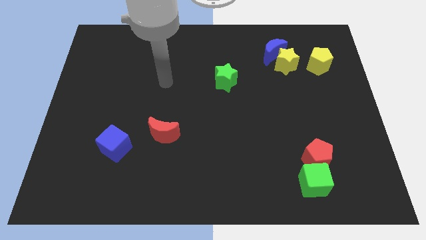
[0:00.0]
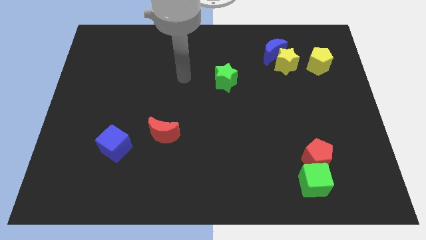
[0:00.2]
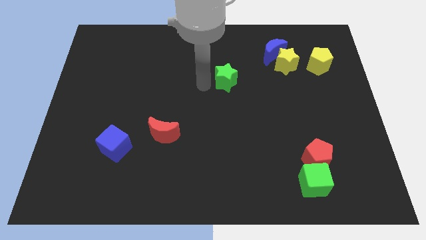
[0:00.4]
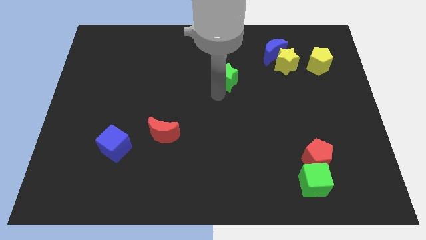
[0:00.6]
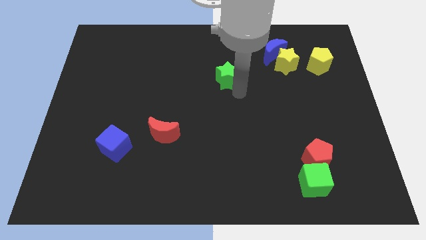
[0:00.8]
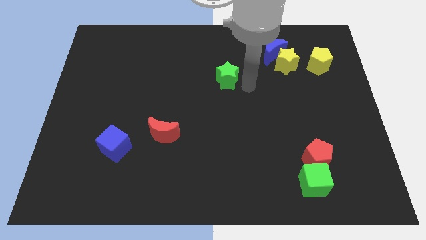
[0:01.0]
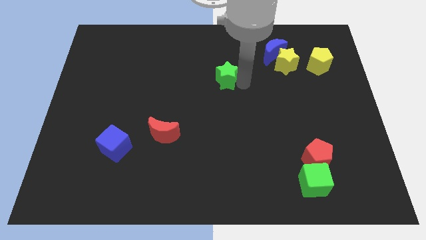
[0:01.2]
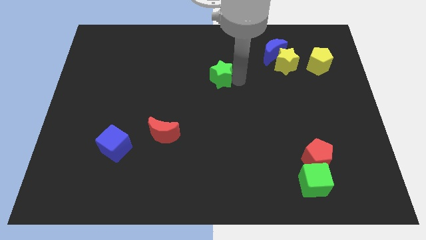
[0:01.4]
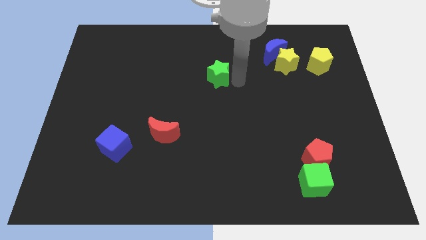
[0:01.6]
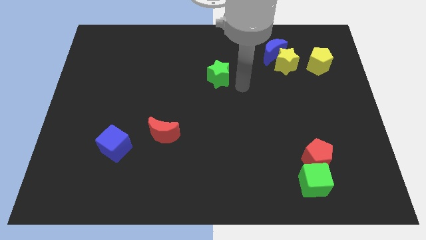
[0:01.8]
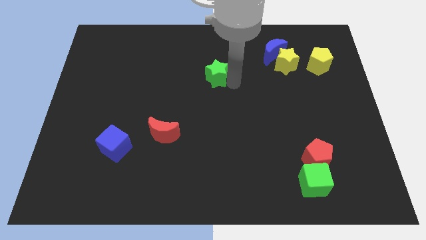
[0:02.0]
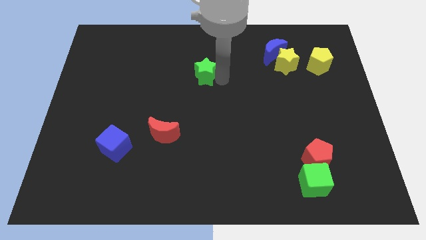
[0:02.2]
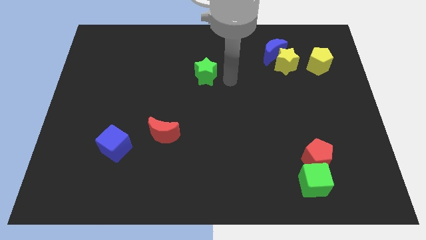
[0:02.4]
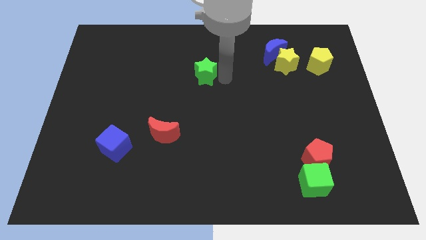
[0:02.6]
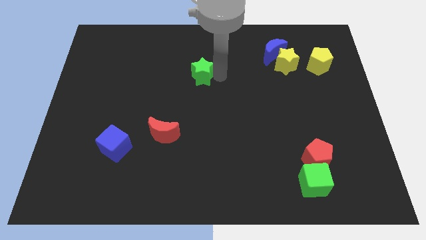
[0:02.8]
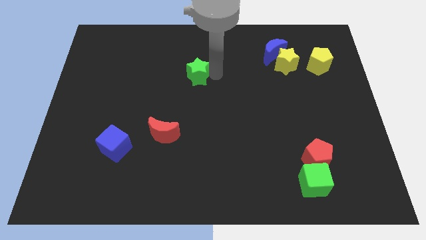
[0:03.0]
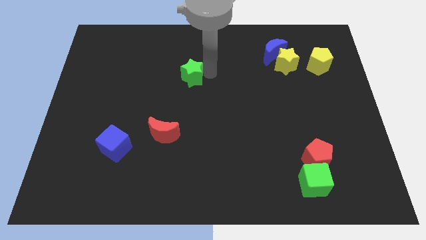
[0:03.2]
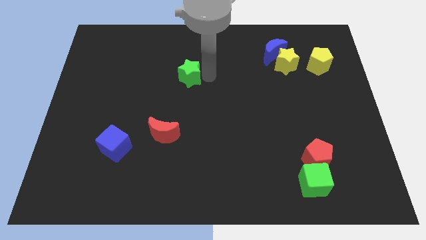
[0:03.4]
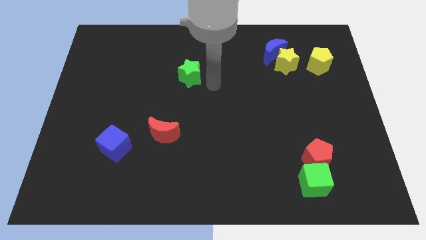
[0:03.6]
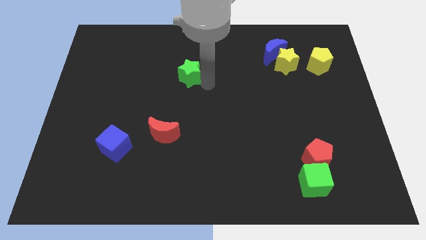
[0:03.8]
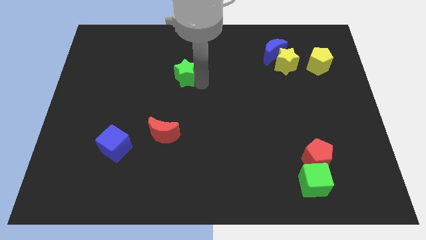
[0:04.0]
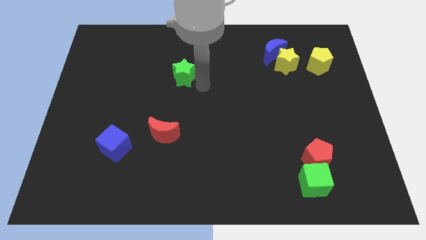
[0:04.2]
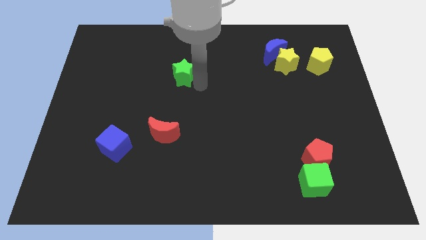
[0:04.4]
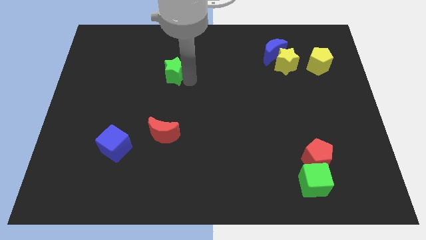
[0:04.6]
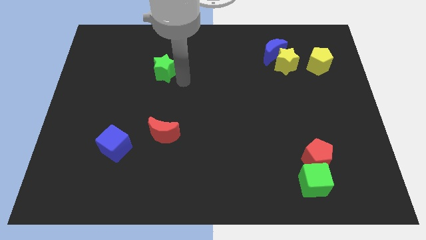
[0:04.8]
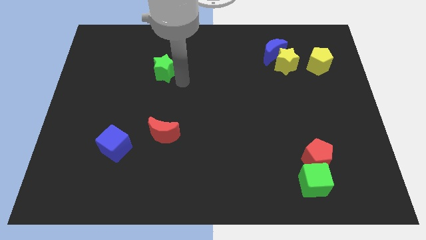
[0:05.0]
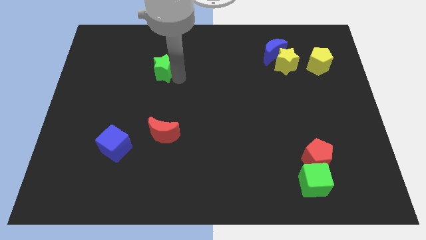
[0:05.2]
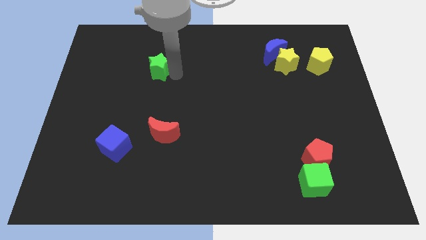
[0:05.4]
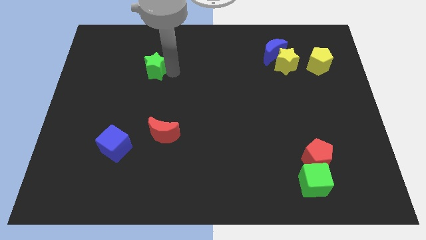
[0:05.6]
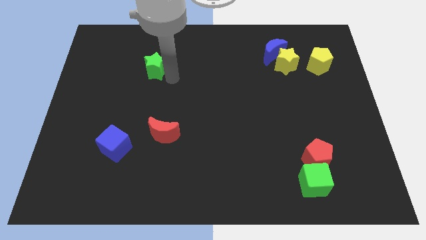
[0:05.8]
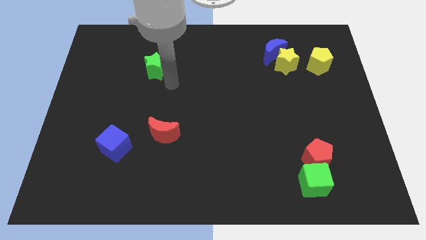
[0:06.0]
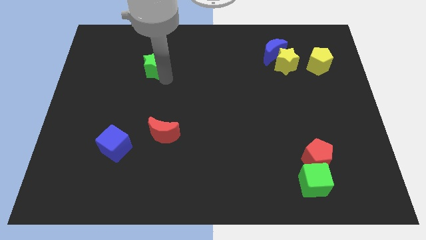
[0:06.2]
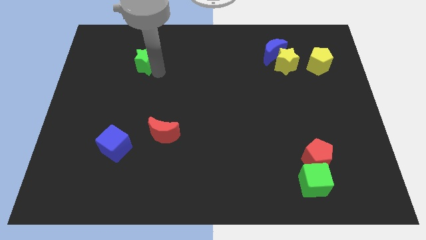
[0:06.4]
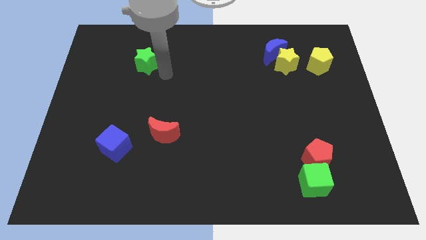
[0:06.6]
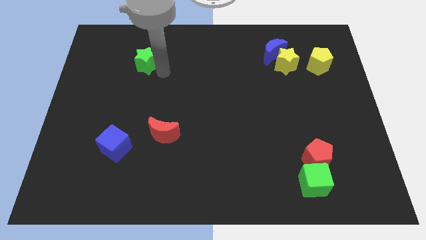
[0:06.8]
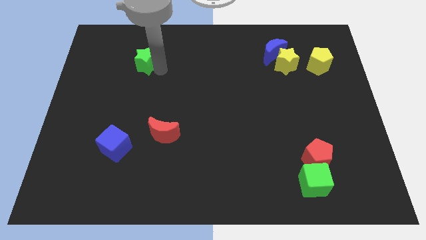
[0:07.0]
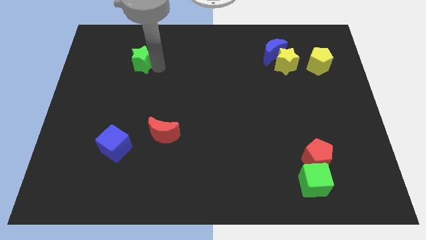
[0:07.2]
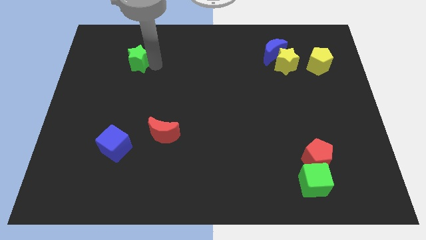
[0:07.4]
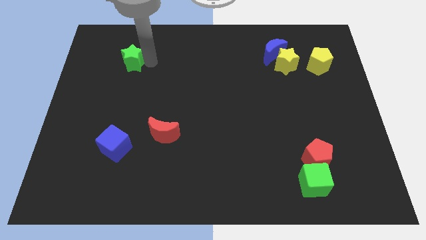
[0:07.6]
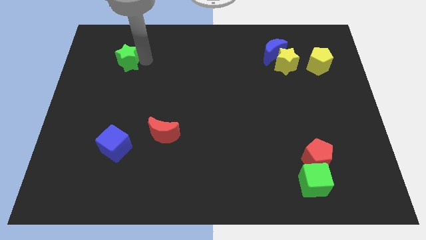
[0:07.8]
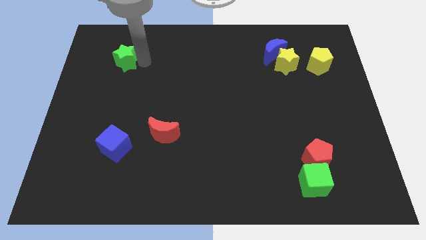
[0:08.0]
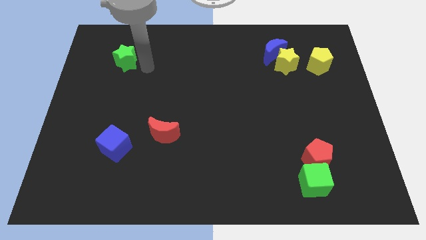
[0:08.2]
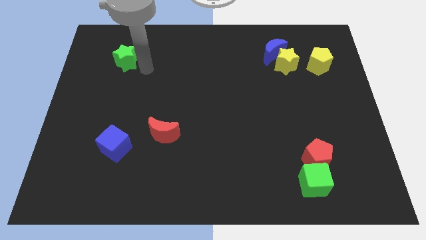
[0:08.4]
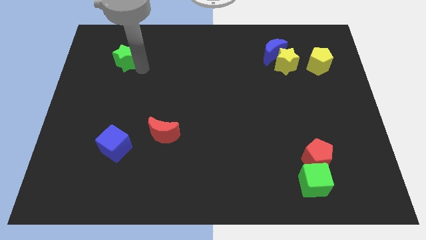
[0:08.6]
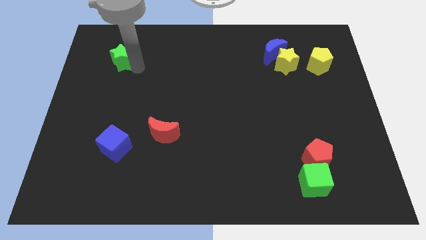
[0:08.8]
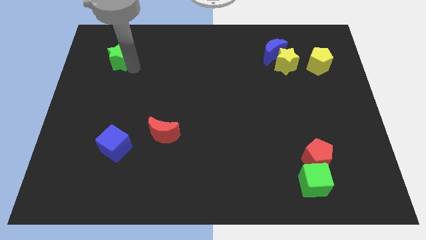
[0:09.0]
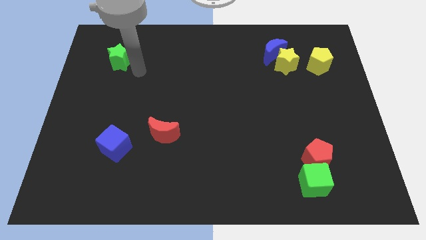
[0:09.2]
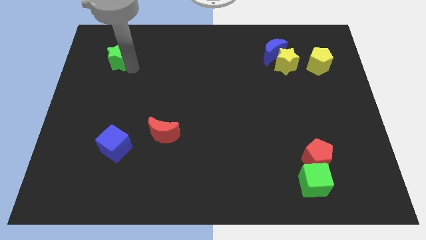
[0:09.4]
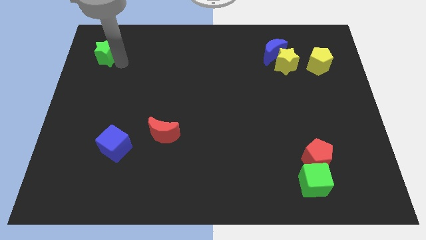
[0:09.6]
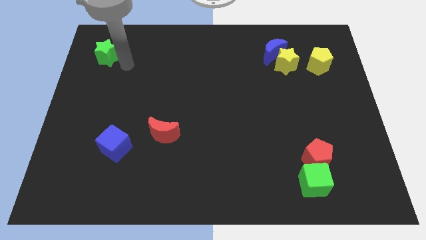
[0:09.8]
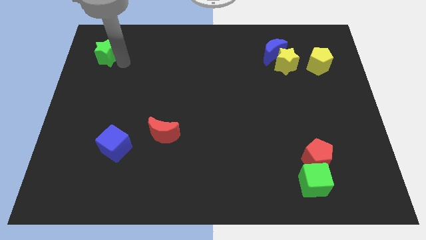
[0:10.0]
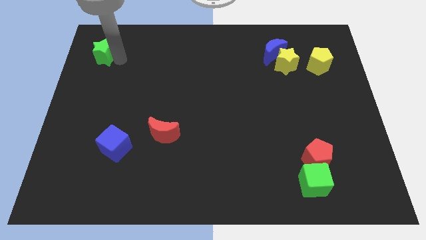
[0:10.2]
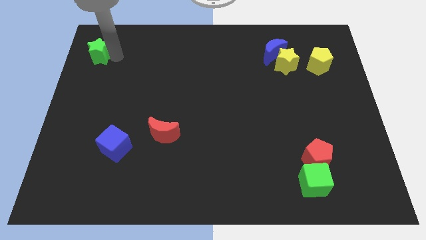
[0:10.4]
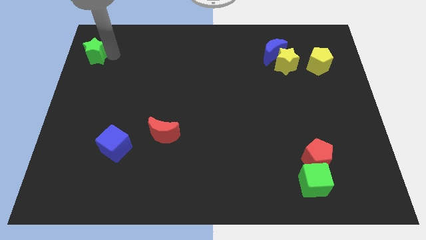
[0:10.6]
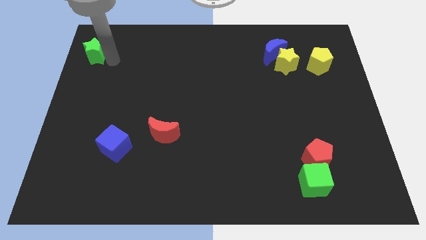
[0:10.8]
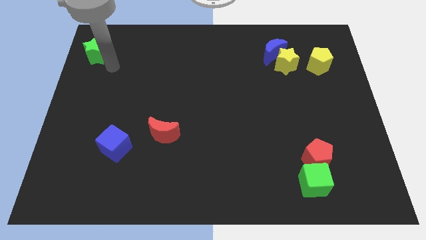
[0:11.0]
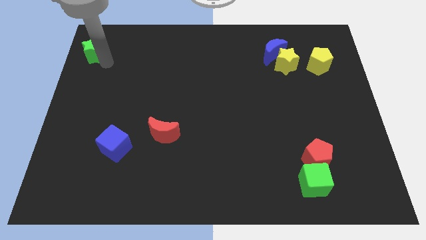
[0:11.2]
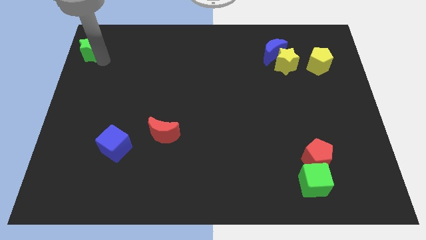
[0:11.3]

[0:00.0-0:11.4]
move the green star to the top left of the board

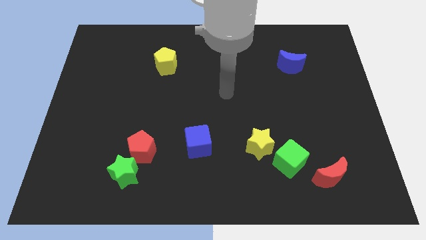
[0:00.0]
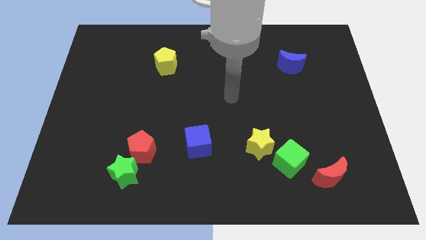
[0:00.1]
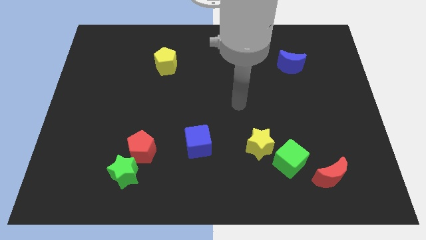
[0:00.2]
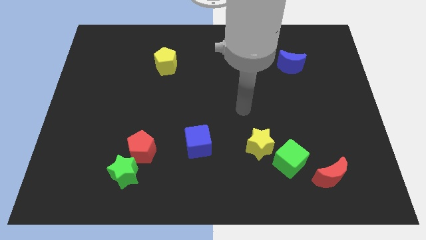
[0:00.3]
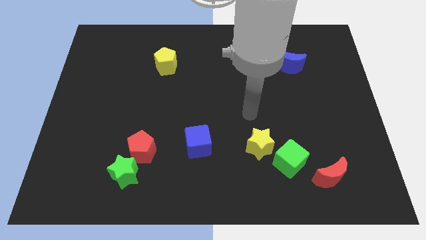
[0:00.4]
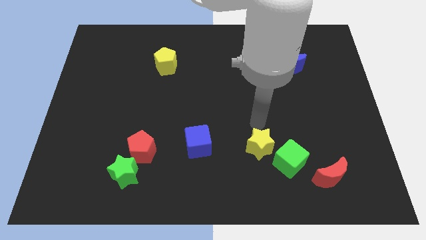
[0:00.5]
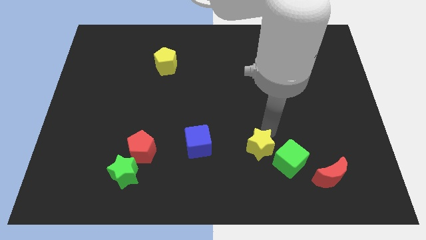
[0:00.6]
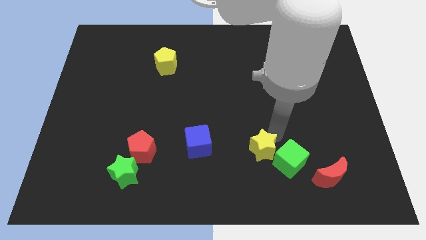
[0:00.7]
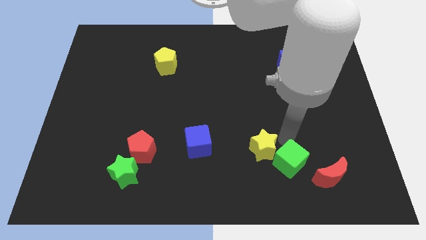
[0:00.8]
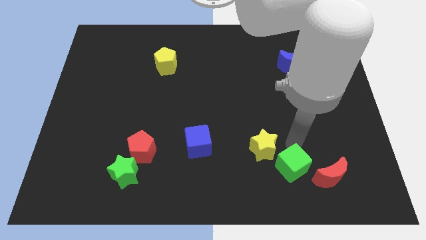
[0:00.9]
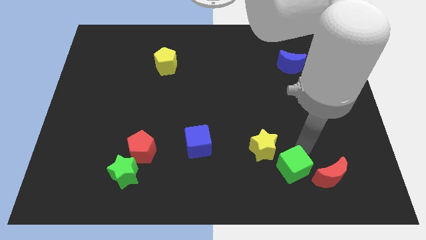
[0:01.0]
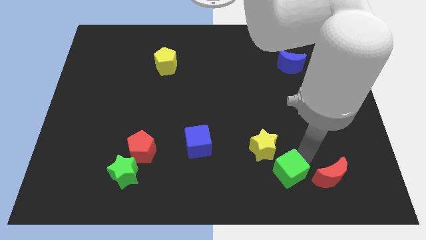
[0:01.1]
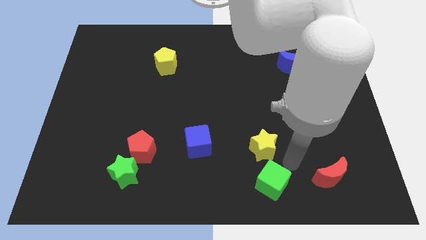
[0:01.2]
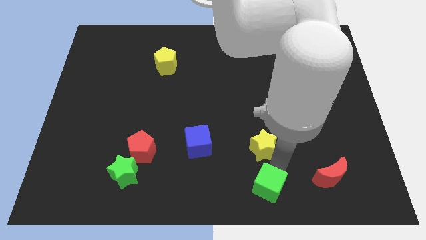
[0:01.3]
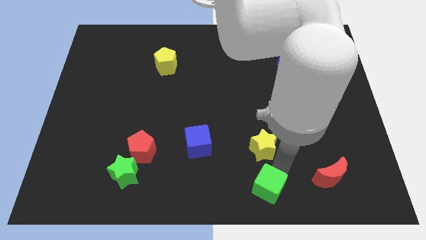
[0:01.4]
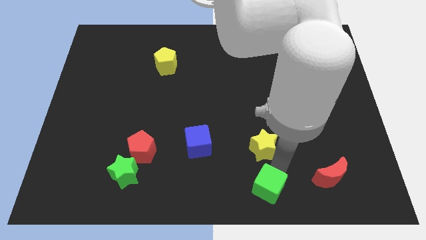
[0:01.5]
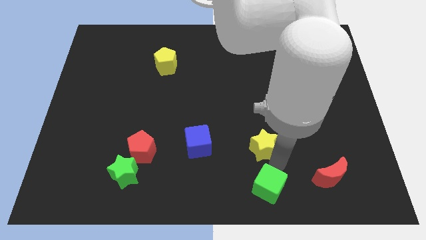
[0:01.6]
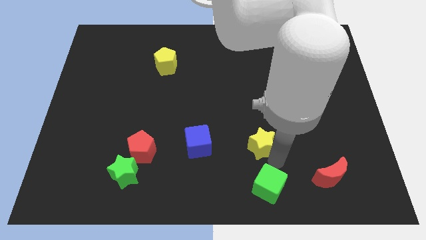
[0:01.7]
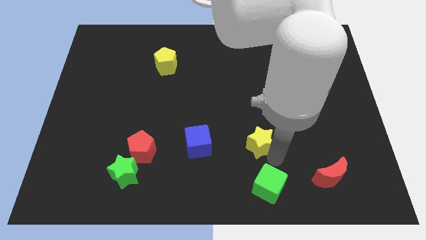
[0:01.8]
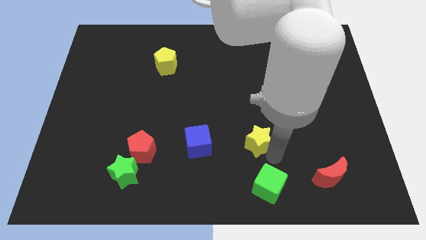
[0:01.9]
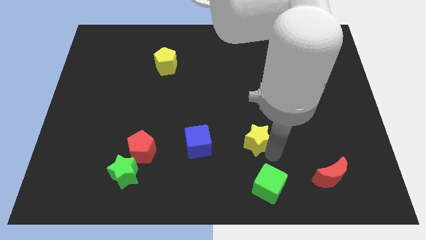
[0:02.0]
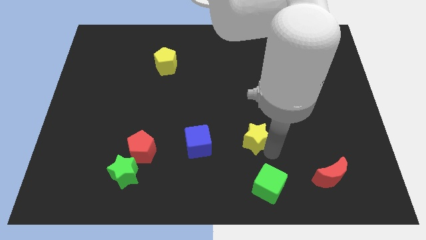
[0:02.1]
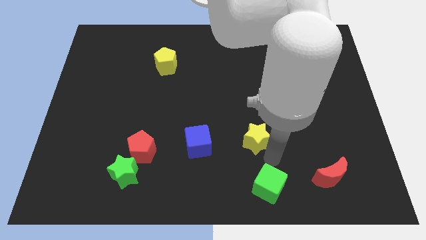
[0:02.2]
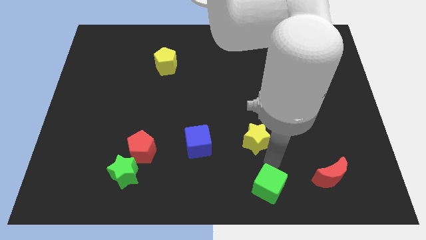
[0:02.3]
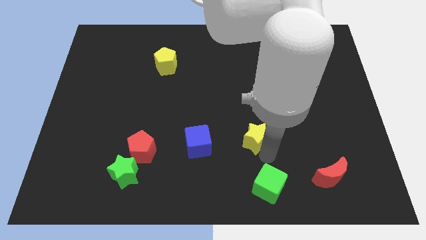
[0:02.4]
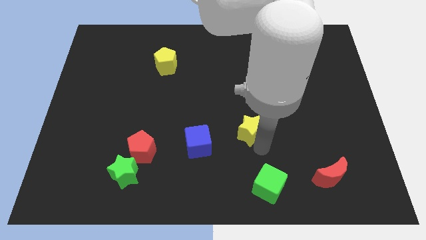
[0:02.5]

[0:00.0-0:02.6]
push the yellow star to the center of the board
